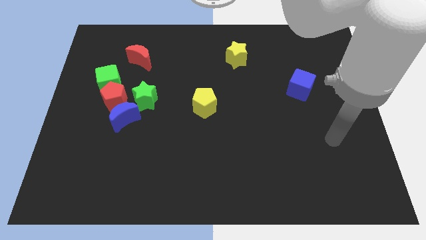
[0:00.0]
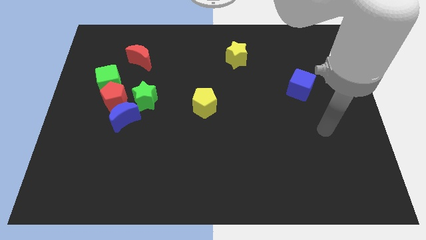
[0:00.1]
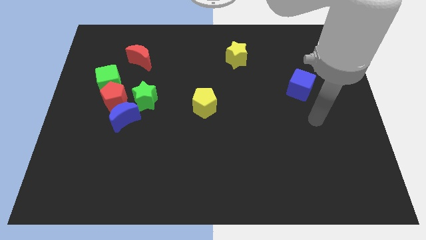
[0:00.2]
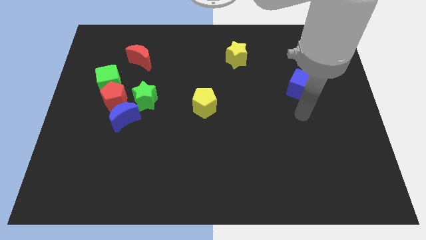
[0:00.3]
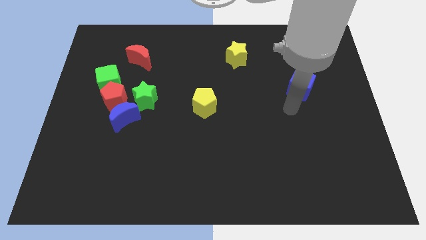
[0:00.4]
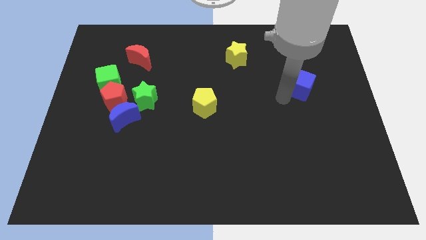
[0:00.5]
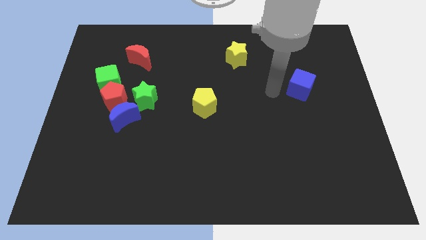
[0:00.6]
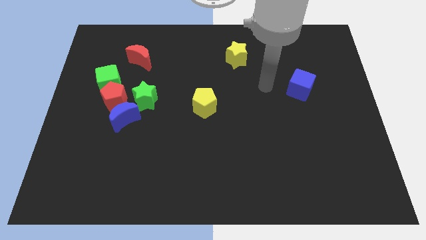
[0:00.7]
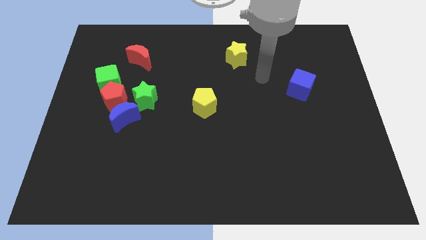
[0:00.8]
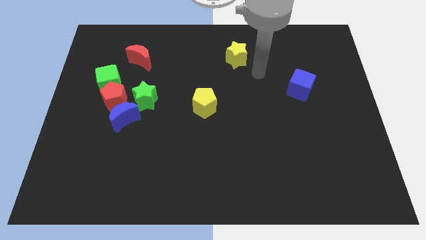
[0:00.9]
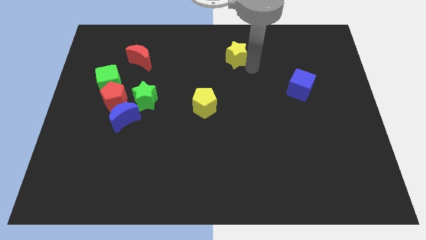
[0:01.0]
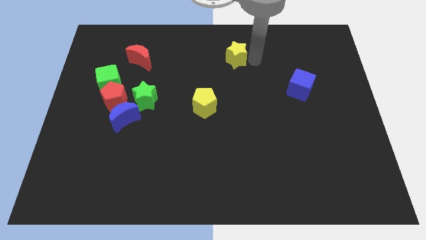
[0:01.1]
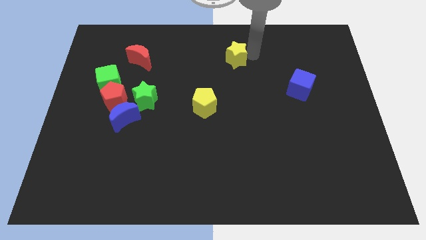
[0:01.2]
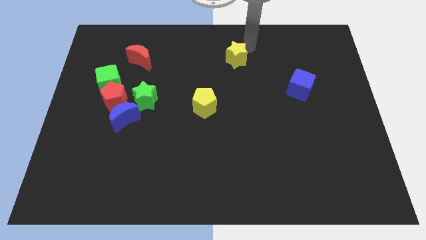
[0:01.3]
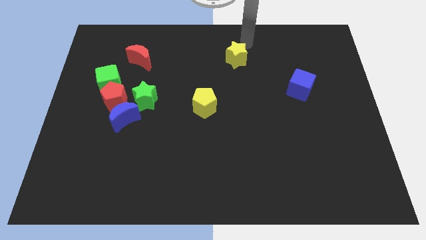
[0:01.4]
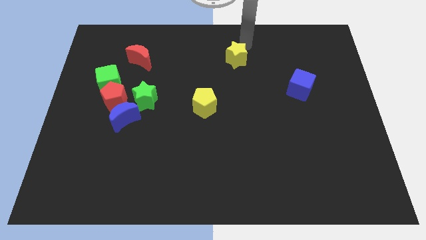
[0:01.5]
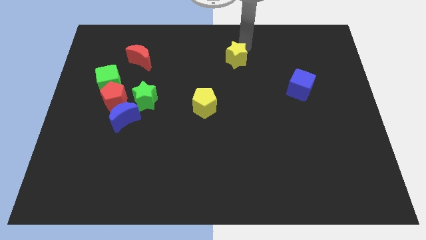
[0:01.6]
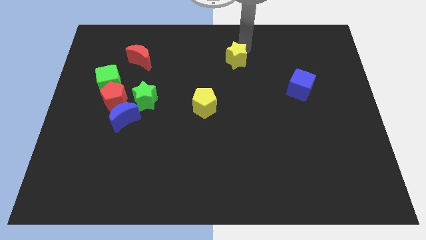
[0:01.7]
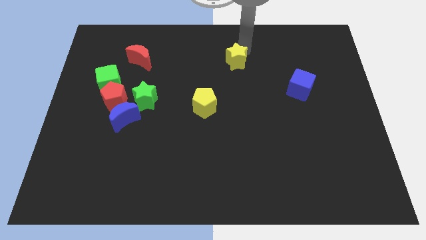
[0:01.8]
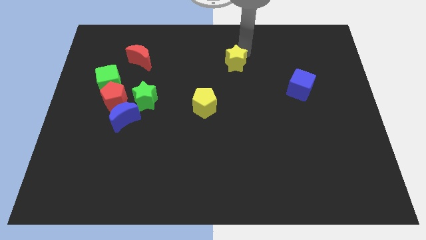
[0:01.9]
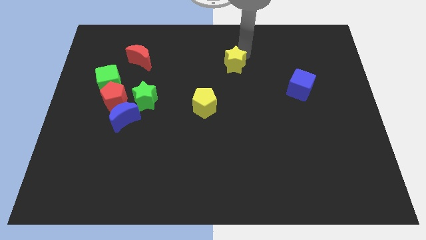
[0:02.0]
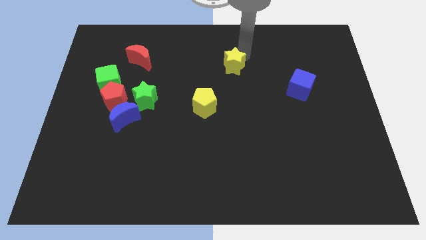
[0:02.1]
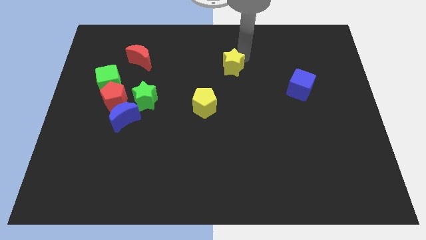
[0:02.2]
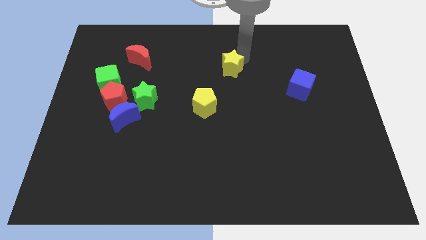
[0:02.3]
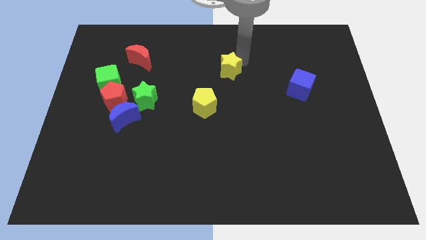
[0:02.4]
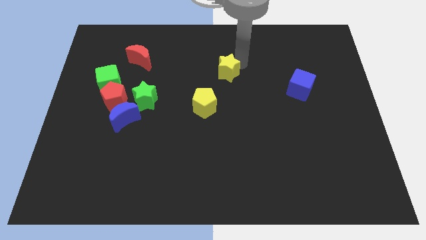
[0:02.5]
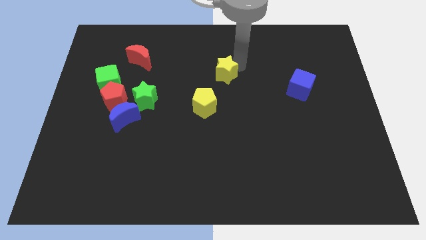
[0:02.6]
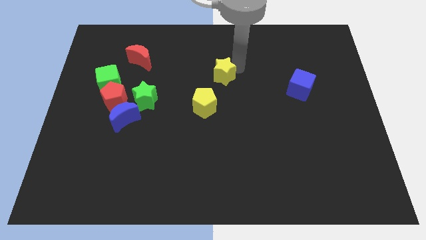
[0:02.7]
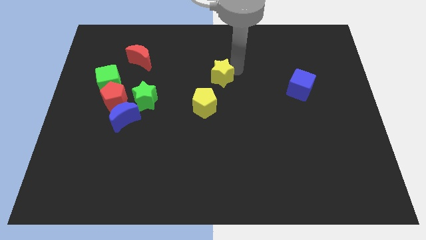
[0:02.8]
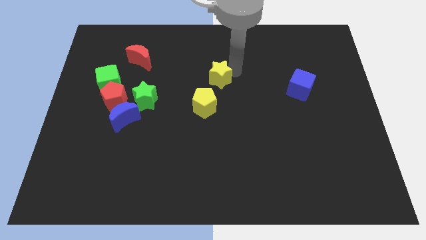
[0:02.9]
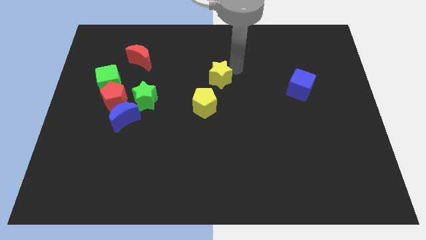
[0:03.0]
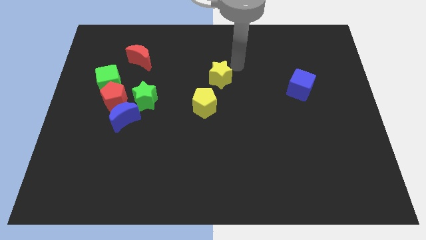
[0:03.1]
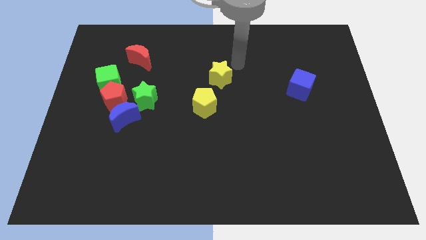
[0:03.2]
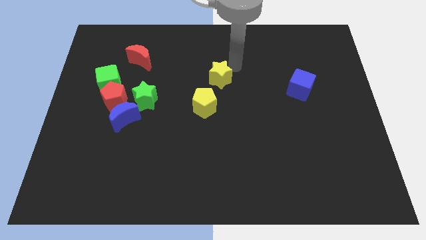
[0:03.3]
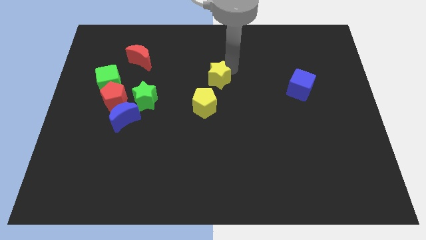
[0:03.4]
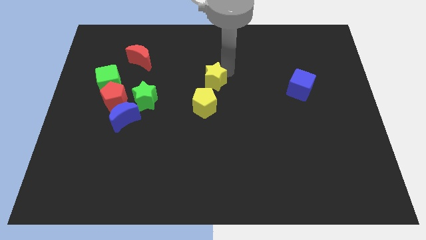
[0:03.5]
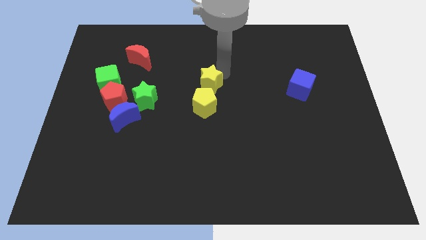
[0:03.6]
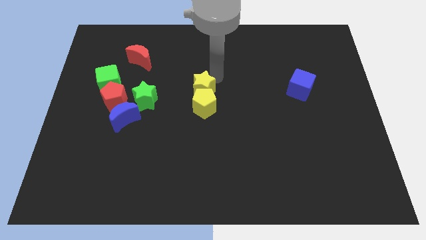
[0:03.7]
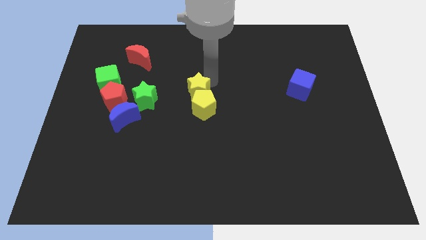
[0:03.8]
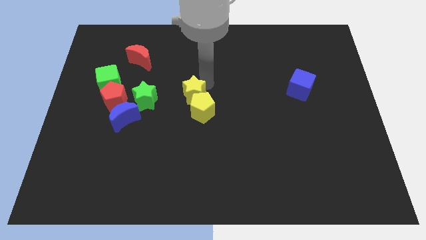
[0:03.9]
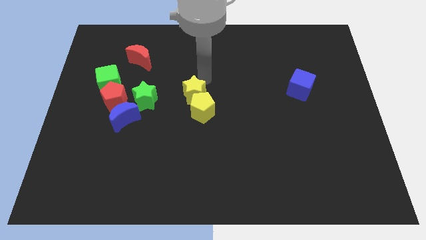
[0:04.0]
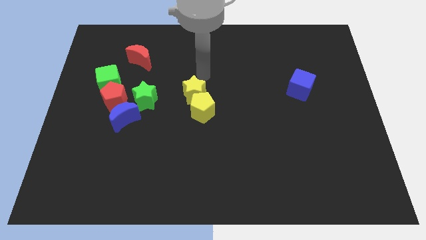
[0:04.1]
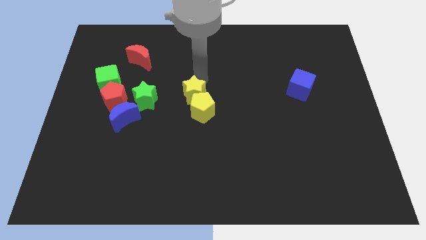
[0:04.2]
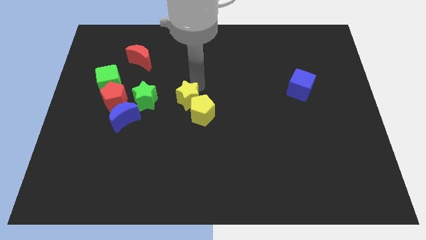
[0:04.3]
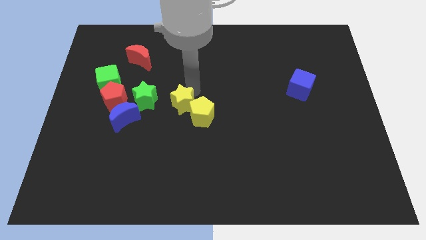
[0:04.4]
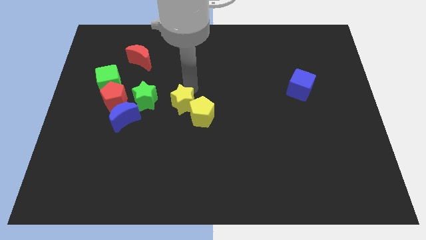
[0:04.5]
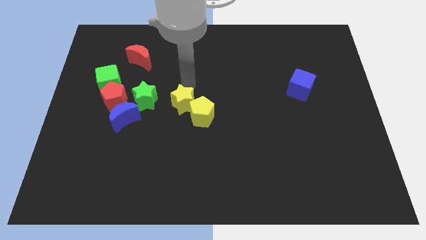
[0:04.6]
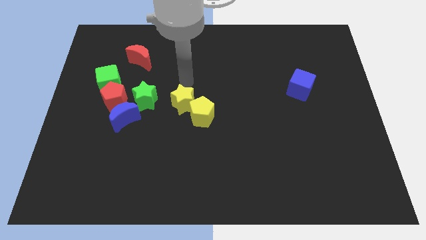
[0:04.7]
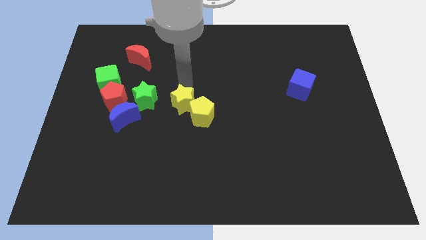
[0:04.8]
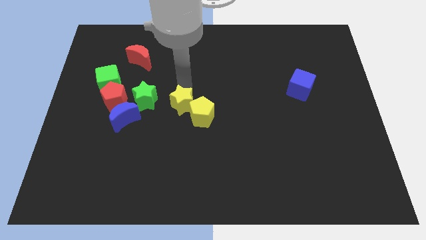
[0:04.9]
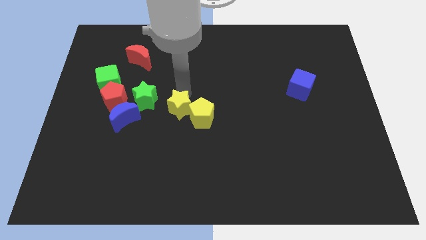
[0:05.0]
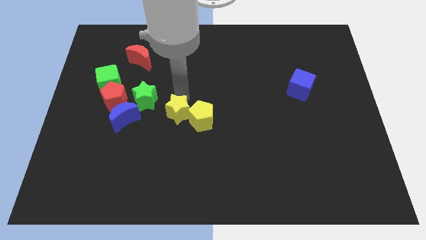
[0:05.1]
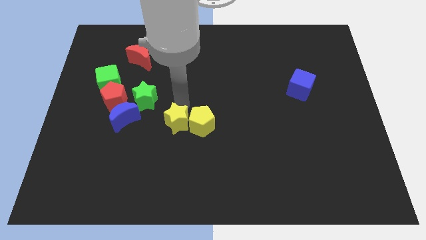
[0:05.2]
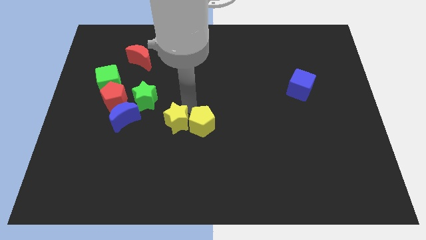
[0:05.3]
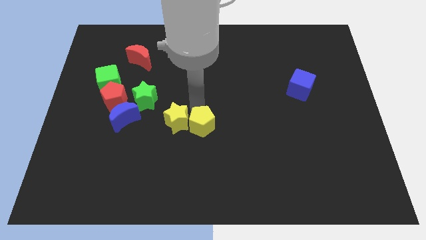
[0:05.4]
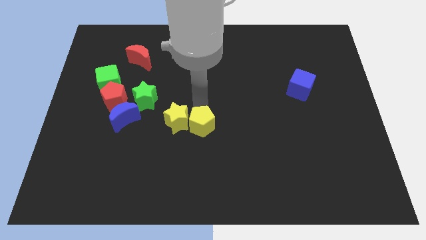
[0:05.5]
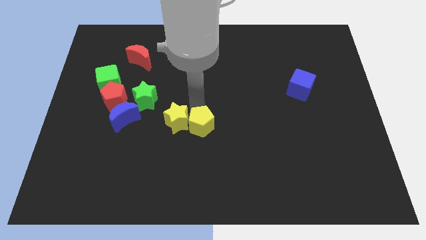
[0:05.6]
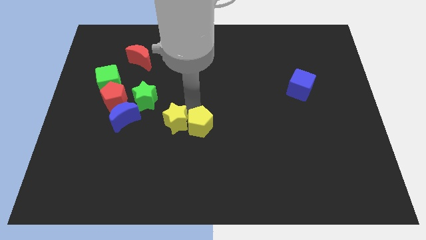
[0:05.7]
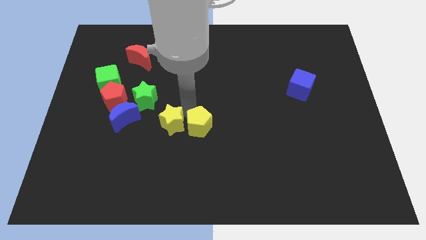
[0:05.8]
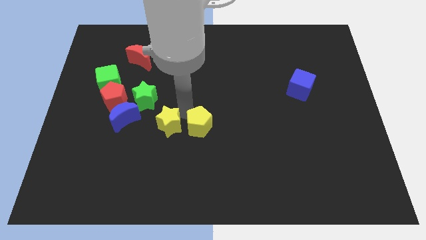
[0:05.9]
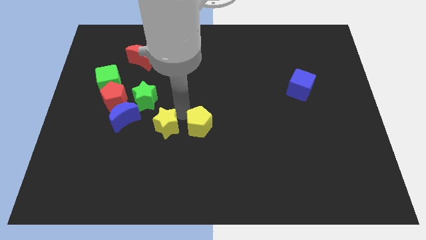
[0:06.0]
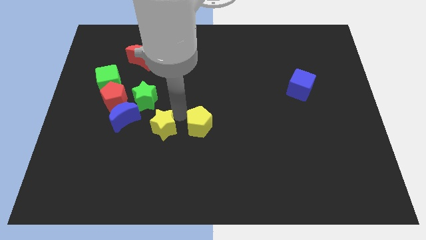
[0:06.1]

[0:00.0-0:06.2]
move the yellow star to the bottom right side of the blue moon

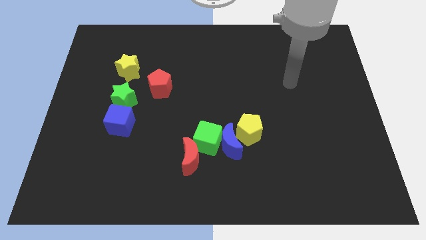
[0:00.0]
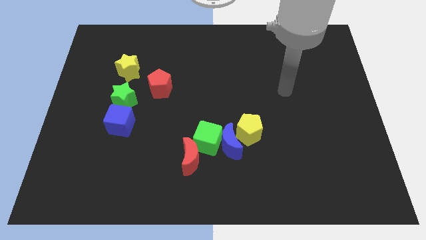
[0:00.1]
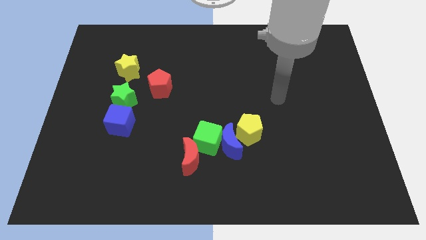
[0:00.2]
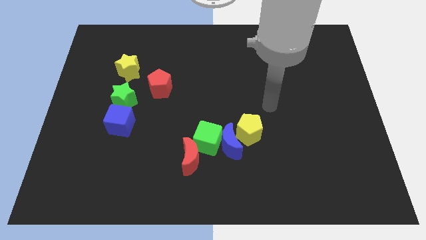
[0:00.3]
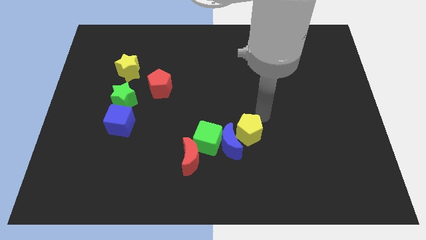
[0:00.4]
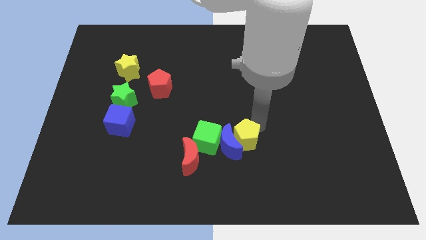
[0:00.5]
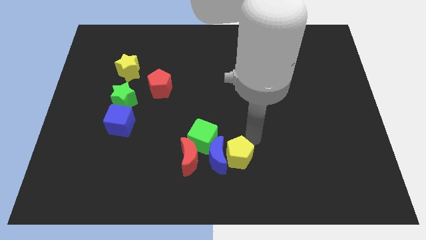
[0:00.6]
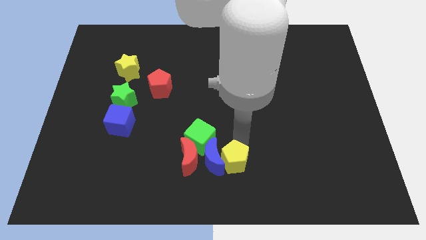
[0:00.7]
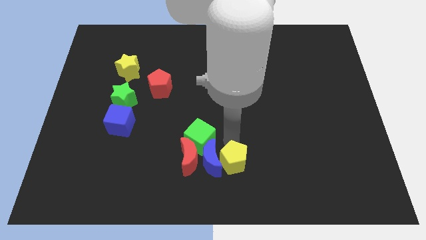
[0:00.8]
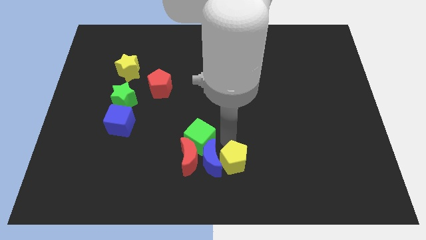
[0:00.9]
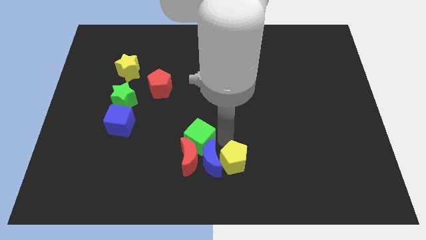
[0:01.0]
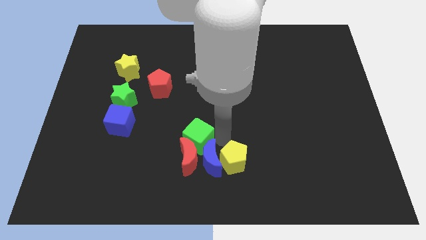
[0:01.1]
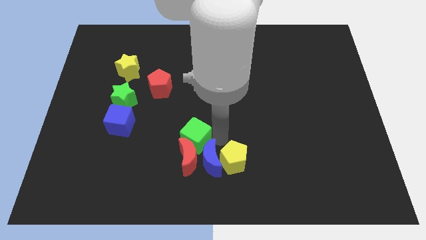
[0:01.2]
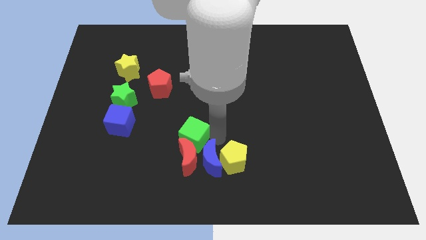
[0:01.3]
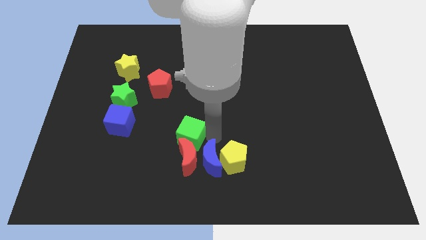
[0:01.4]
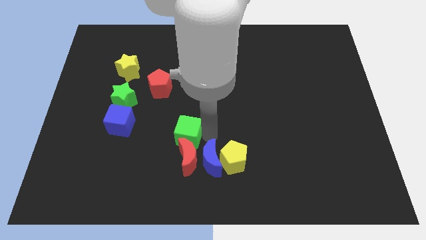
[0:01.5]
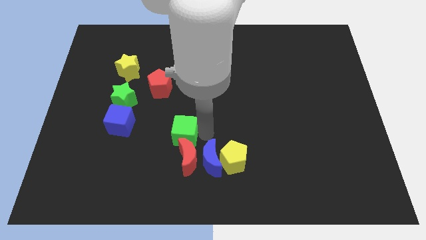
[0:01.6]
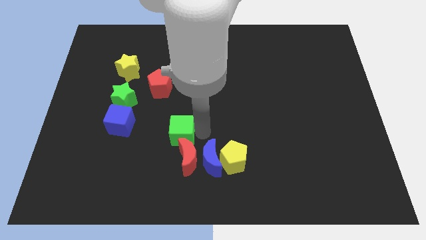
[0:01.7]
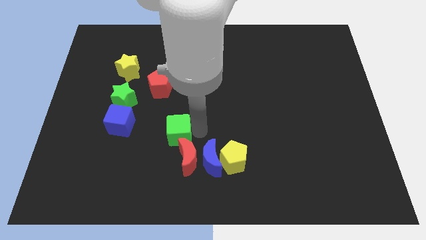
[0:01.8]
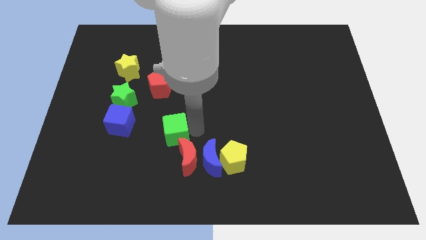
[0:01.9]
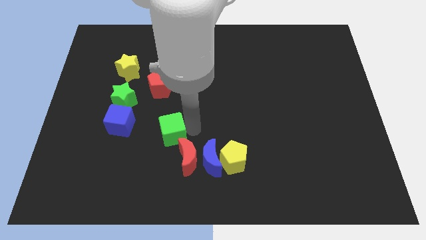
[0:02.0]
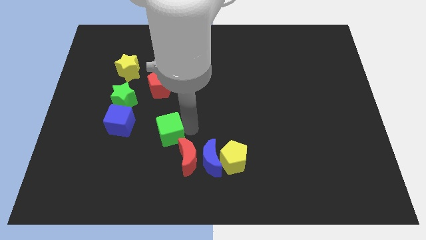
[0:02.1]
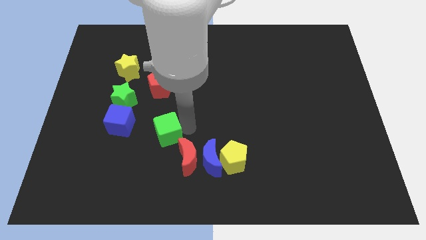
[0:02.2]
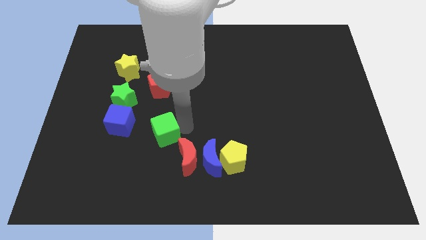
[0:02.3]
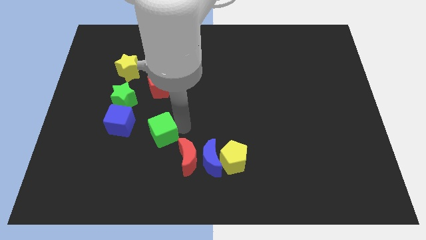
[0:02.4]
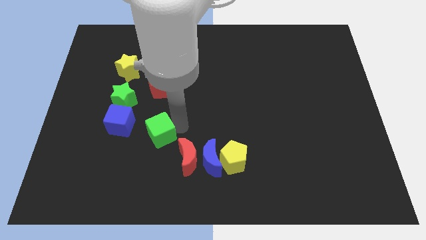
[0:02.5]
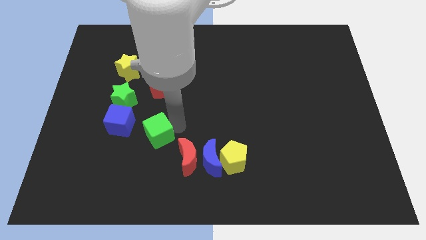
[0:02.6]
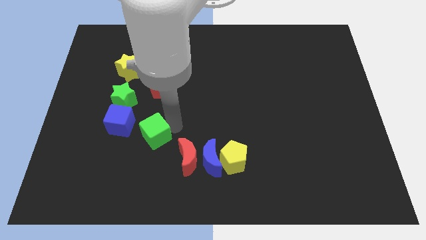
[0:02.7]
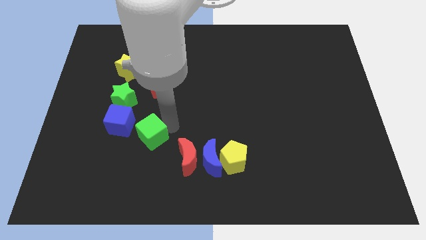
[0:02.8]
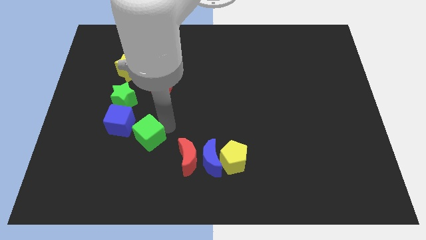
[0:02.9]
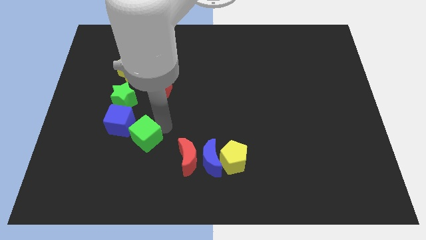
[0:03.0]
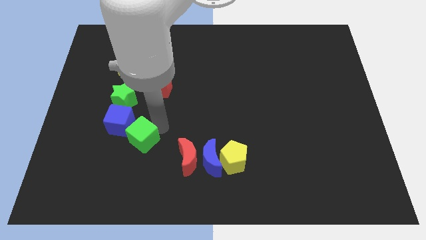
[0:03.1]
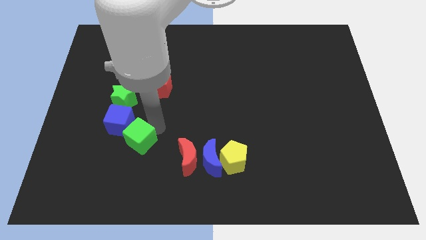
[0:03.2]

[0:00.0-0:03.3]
move the green cube left of the red moon
